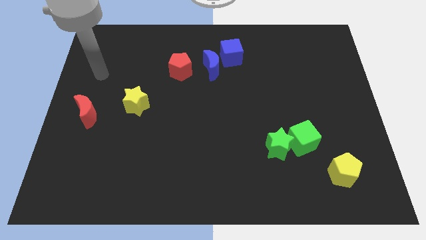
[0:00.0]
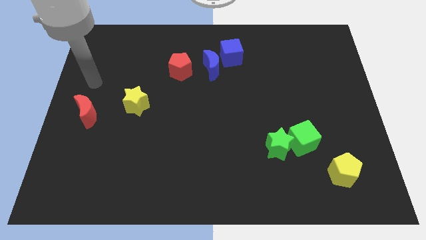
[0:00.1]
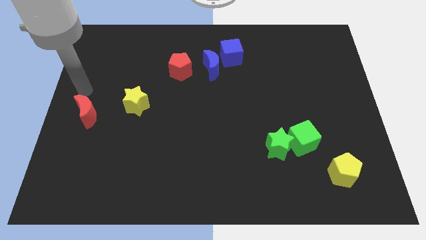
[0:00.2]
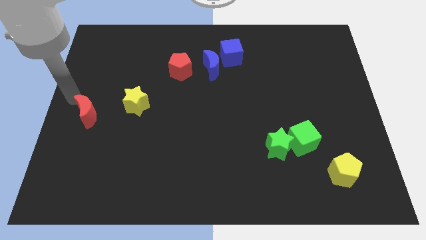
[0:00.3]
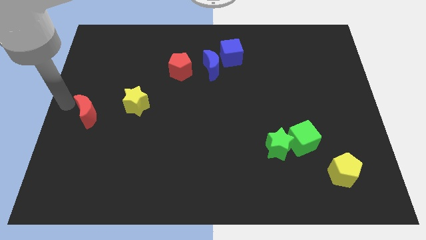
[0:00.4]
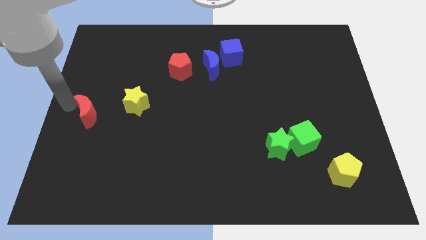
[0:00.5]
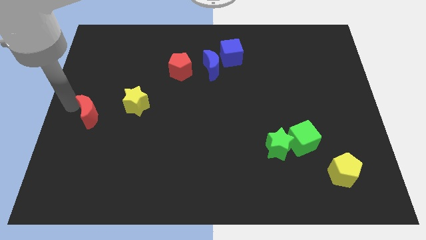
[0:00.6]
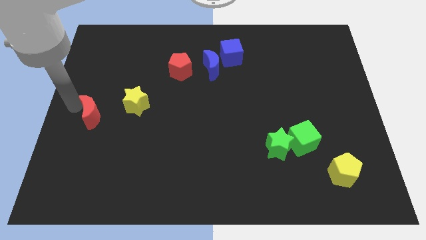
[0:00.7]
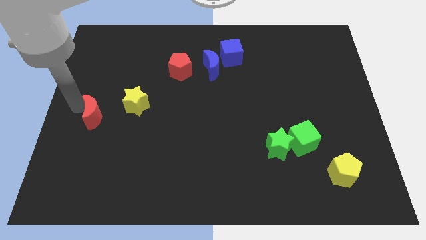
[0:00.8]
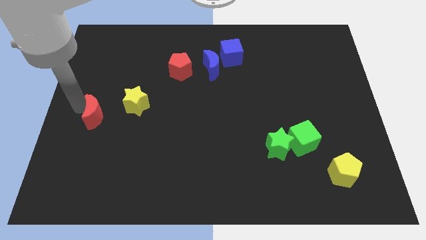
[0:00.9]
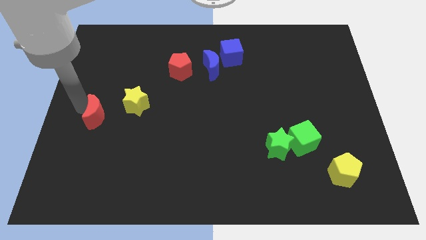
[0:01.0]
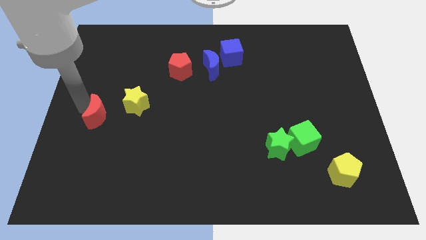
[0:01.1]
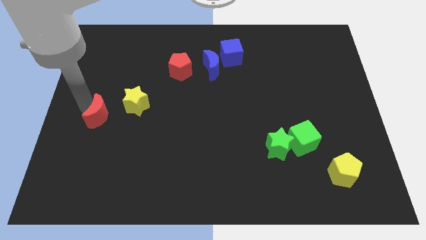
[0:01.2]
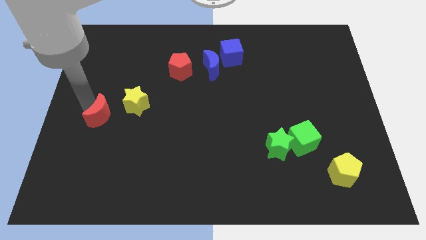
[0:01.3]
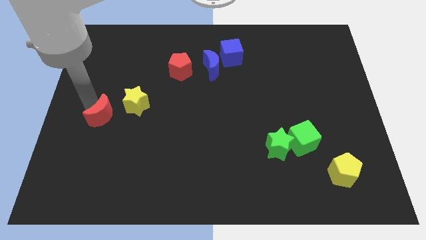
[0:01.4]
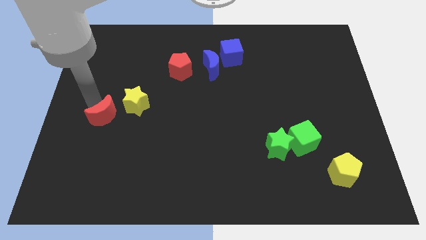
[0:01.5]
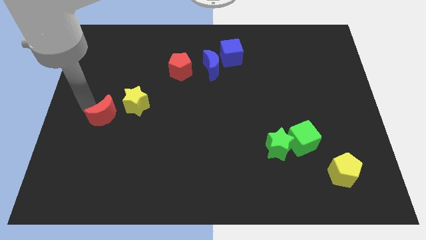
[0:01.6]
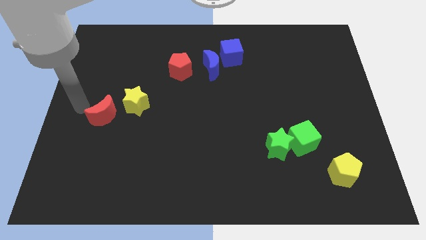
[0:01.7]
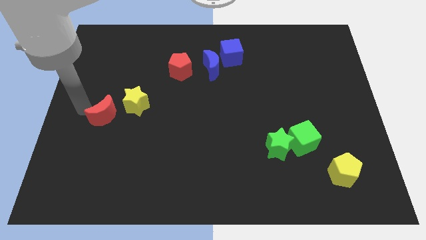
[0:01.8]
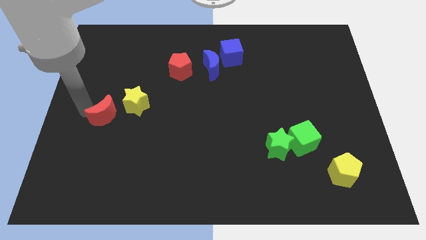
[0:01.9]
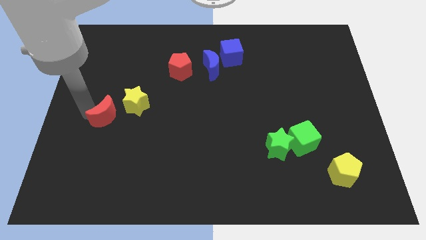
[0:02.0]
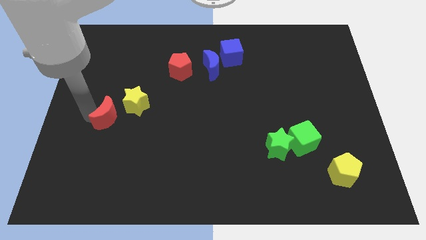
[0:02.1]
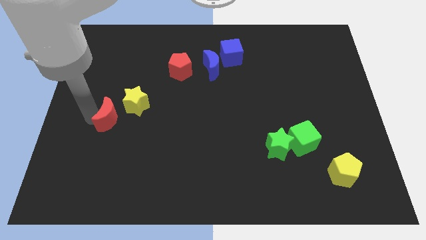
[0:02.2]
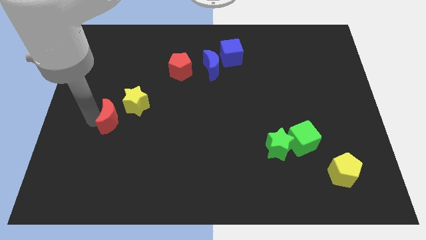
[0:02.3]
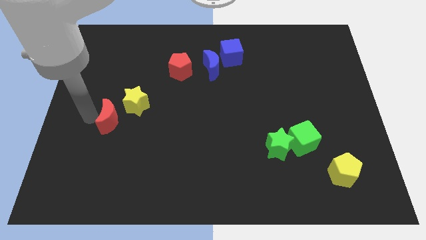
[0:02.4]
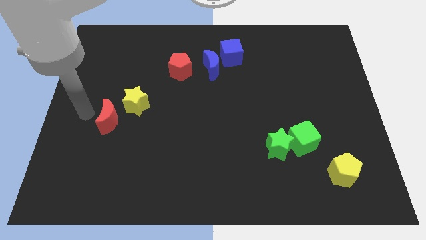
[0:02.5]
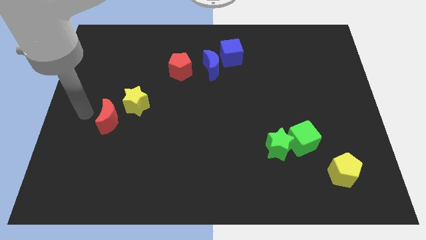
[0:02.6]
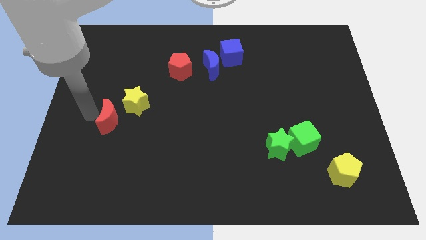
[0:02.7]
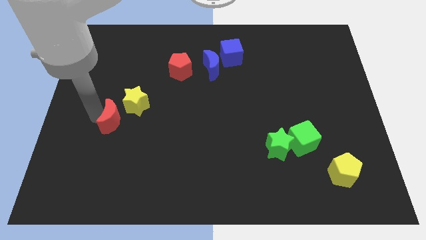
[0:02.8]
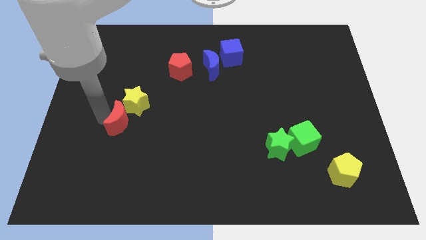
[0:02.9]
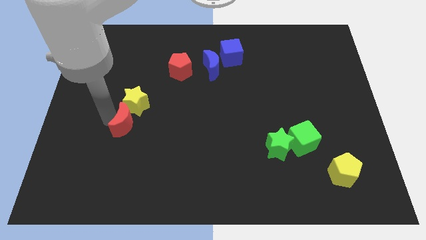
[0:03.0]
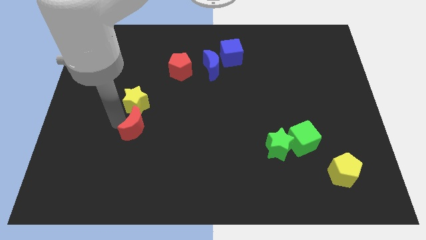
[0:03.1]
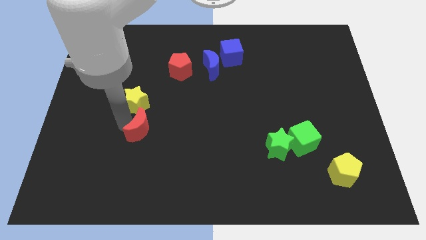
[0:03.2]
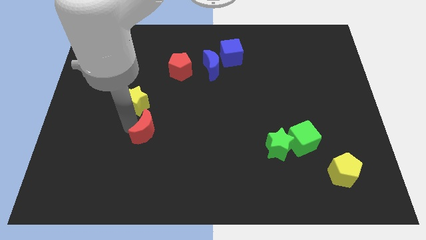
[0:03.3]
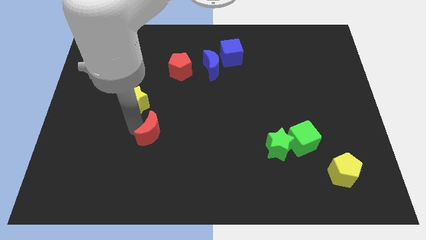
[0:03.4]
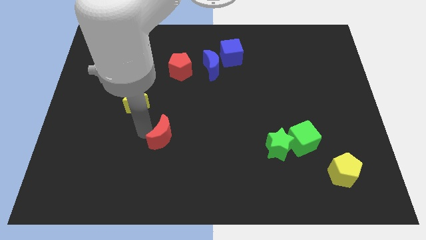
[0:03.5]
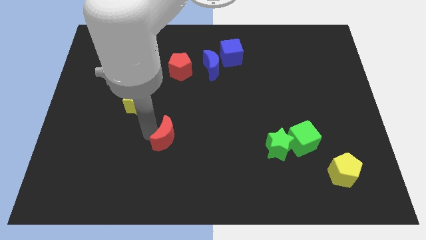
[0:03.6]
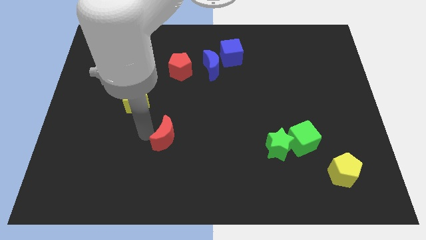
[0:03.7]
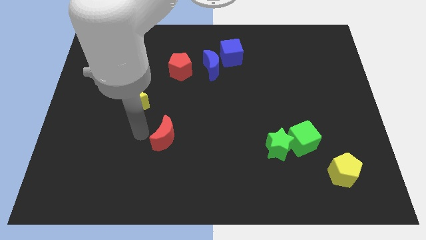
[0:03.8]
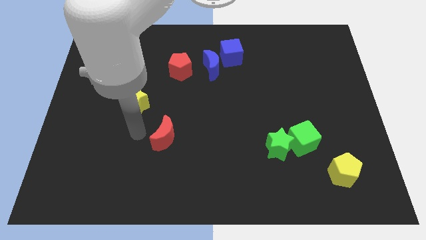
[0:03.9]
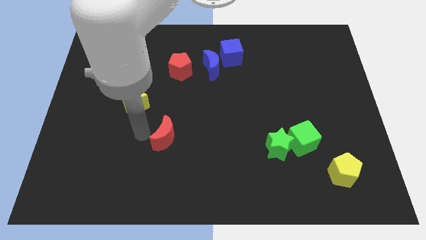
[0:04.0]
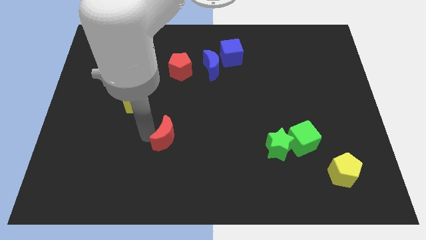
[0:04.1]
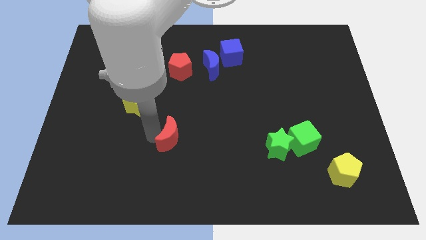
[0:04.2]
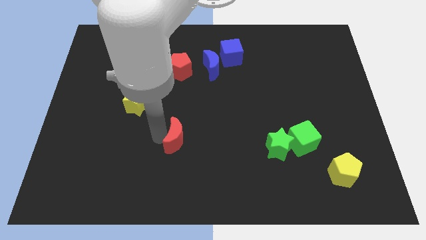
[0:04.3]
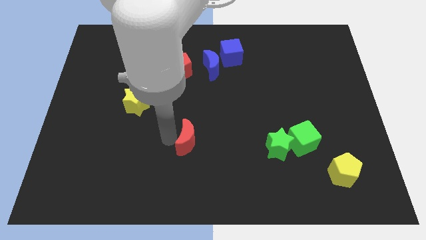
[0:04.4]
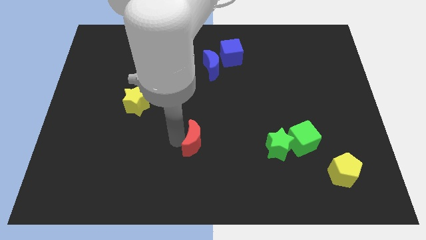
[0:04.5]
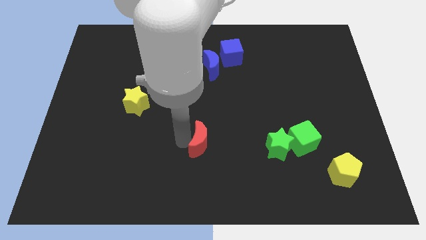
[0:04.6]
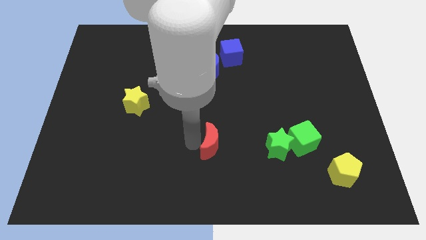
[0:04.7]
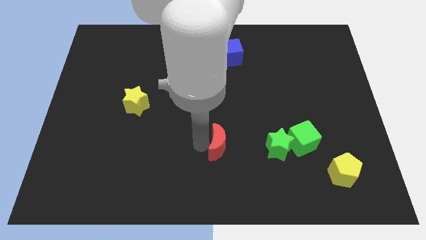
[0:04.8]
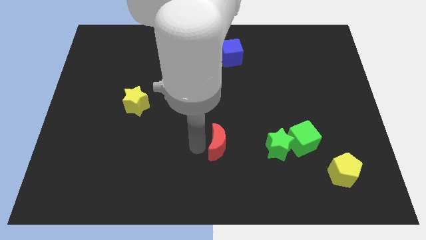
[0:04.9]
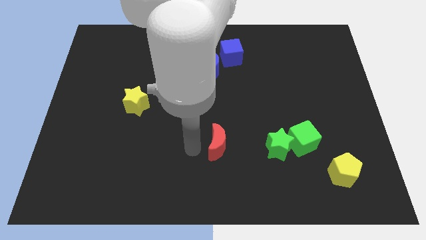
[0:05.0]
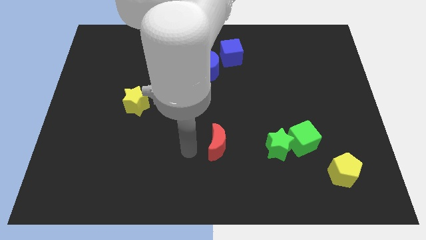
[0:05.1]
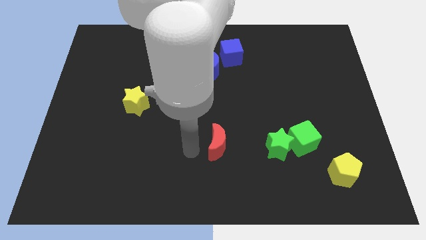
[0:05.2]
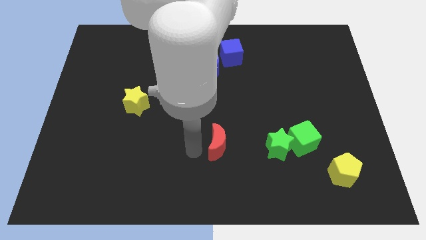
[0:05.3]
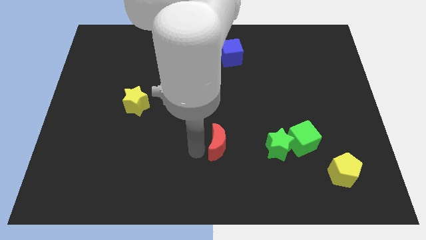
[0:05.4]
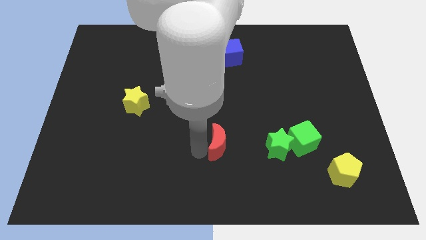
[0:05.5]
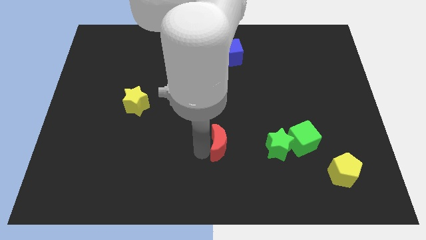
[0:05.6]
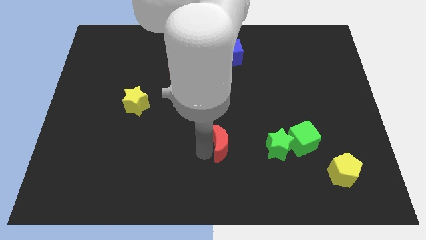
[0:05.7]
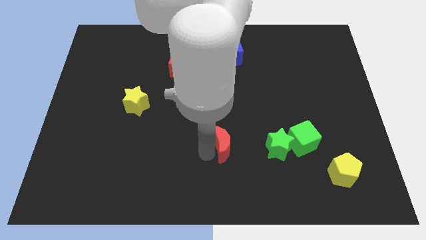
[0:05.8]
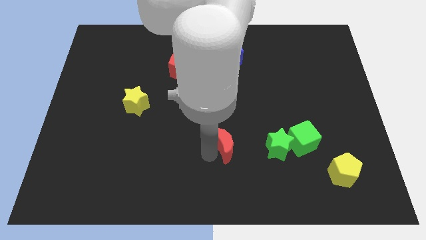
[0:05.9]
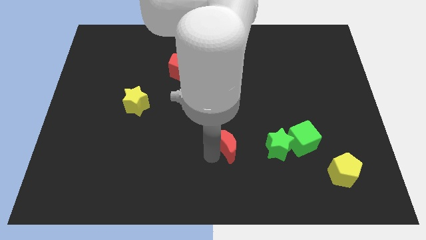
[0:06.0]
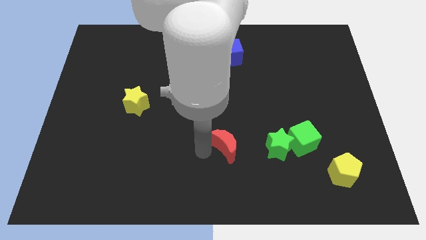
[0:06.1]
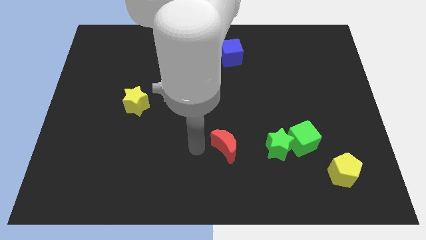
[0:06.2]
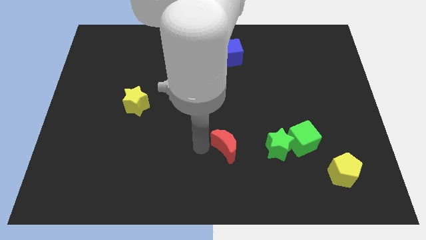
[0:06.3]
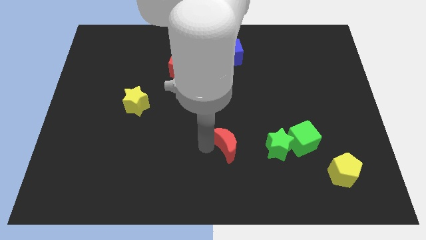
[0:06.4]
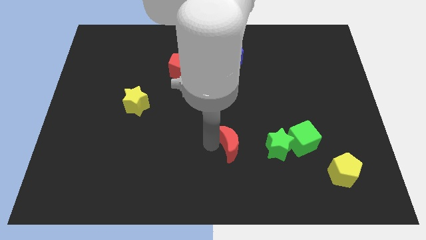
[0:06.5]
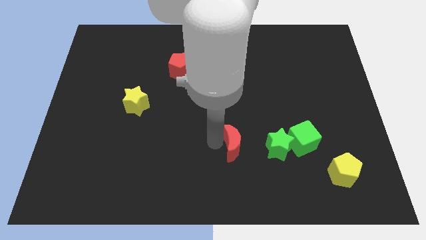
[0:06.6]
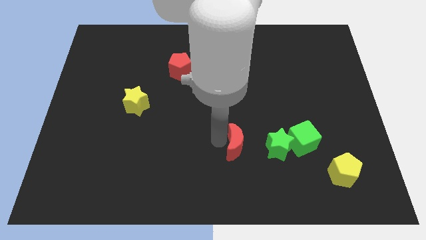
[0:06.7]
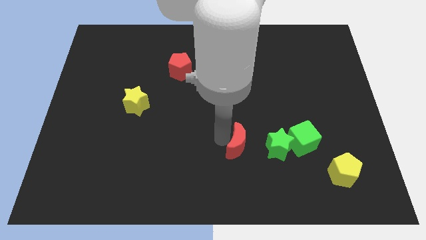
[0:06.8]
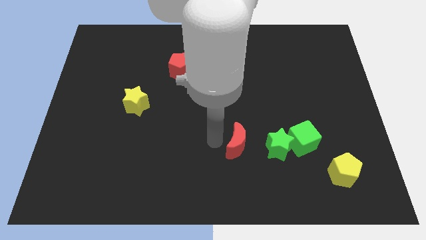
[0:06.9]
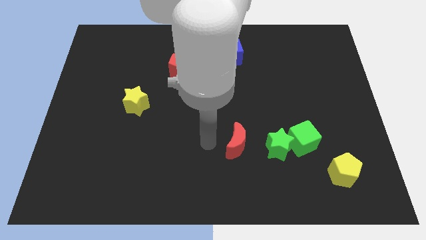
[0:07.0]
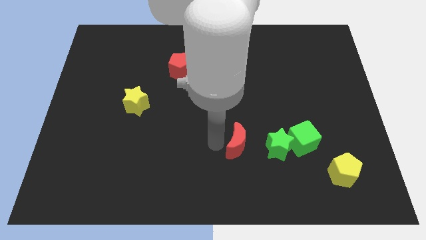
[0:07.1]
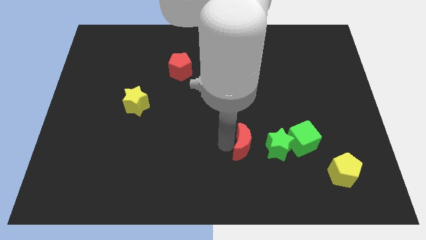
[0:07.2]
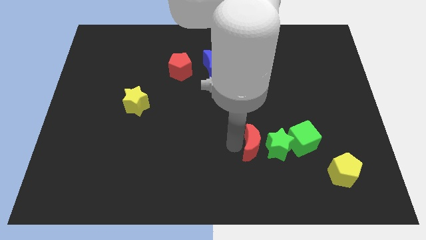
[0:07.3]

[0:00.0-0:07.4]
push the red moon next to the green star
